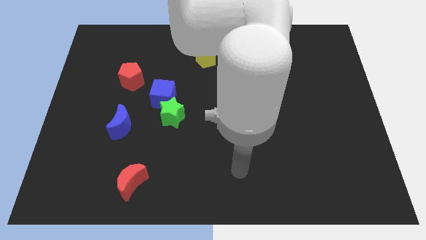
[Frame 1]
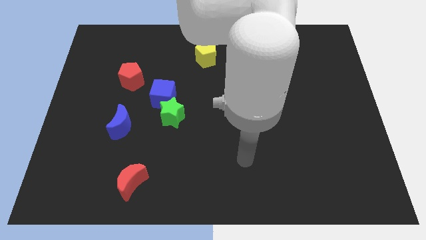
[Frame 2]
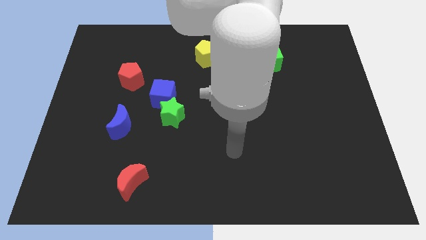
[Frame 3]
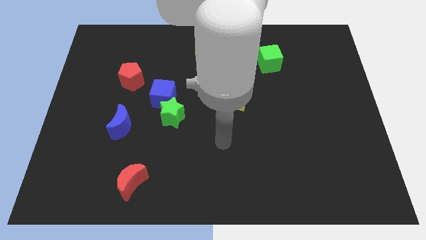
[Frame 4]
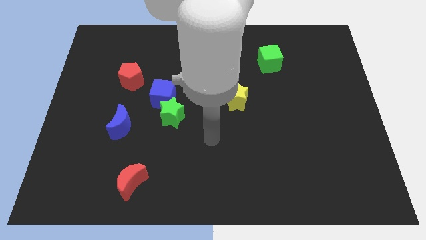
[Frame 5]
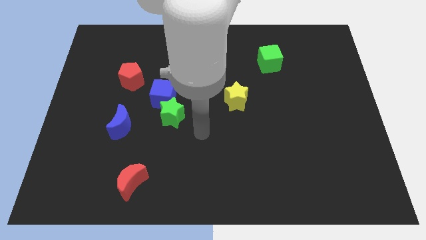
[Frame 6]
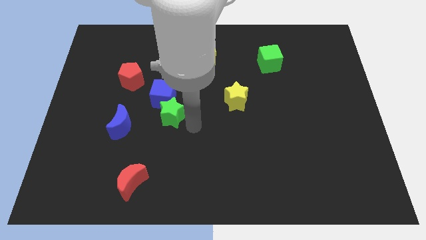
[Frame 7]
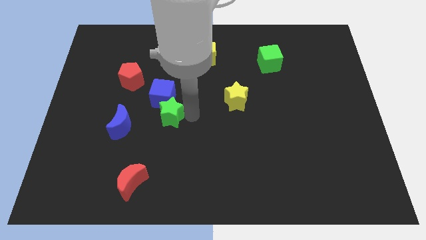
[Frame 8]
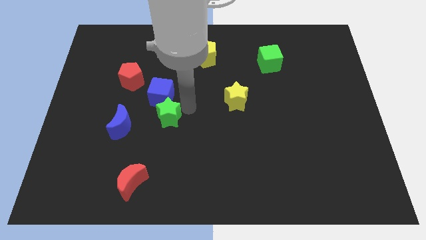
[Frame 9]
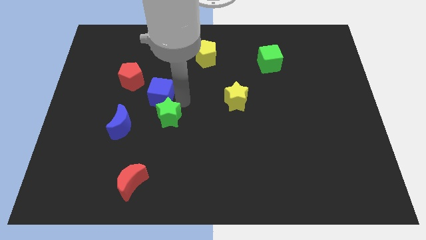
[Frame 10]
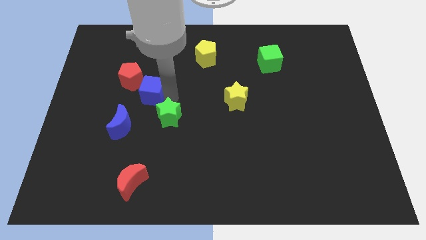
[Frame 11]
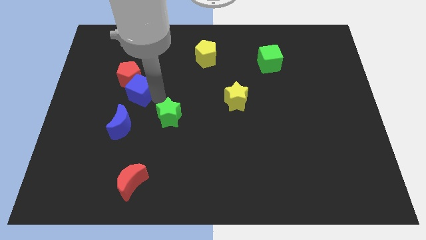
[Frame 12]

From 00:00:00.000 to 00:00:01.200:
pull the green star apart from the blue cube

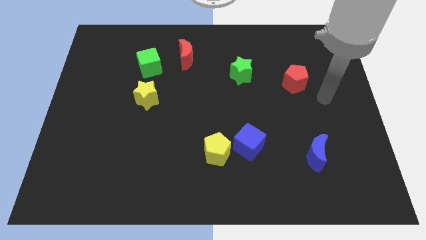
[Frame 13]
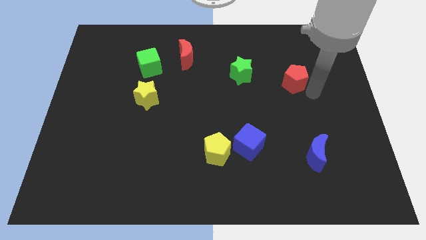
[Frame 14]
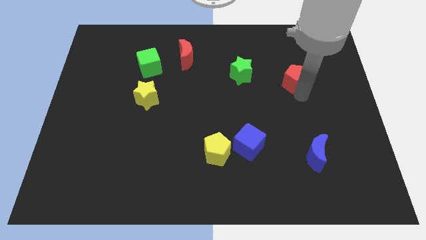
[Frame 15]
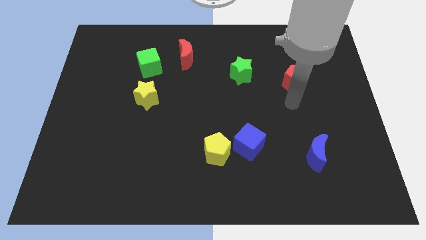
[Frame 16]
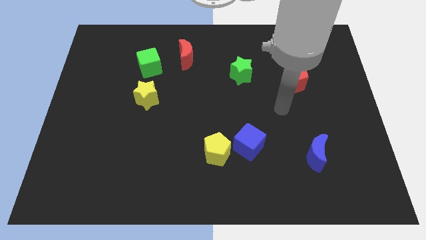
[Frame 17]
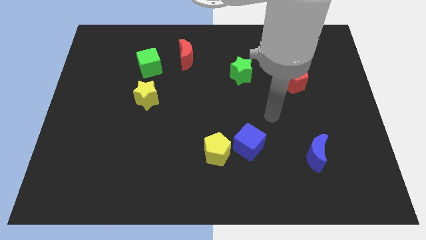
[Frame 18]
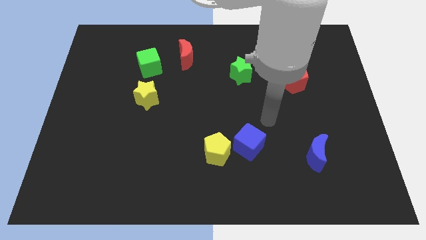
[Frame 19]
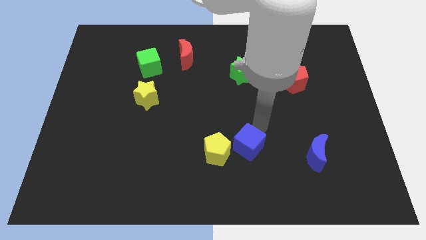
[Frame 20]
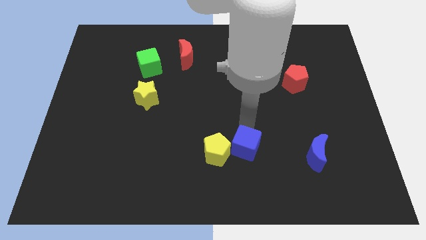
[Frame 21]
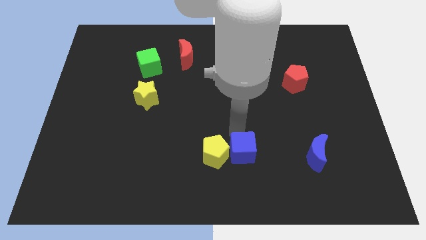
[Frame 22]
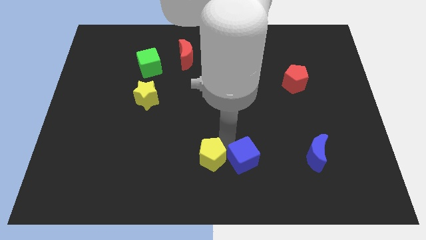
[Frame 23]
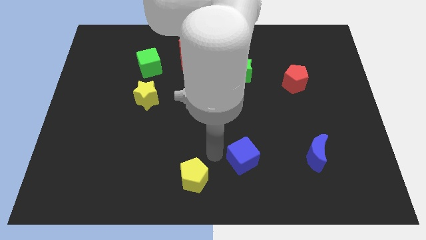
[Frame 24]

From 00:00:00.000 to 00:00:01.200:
pull the blue cube apart from the yellow pentagon

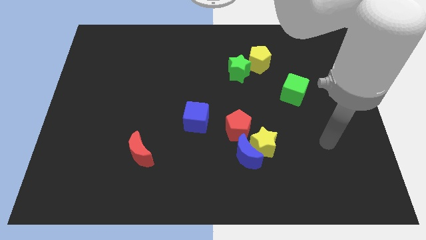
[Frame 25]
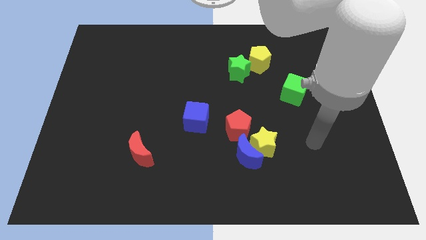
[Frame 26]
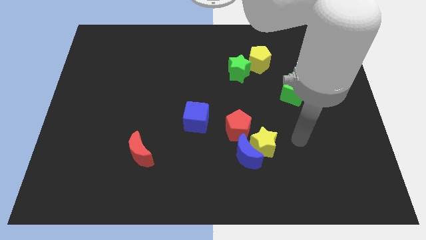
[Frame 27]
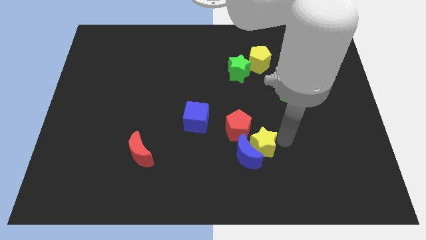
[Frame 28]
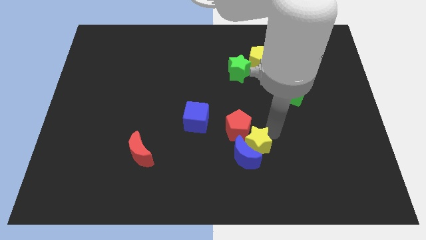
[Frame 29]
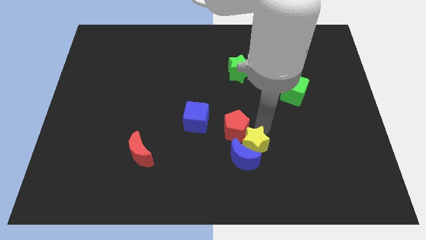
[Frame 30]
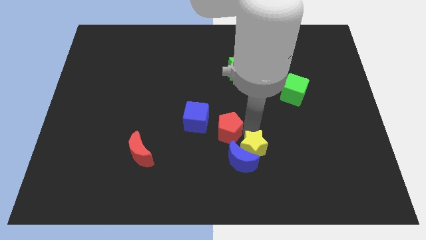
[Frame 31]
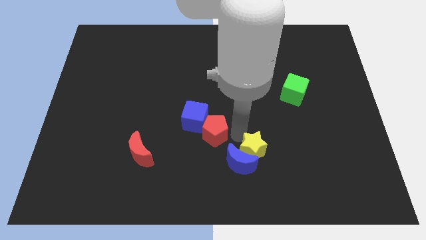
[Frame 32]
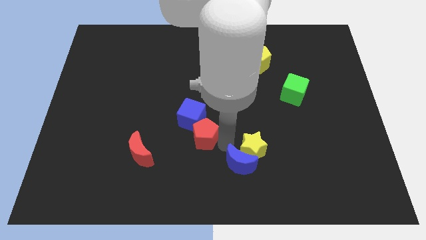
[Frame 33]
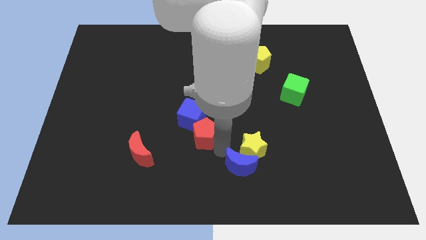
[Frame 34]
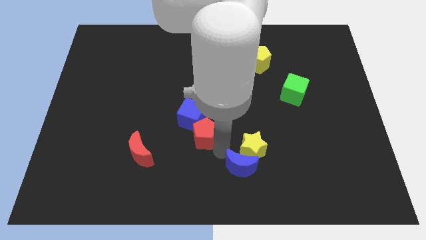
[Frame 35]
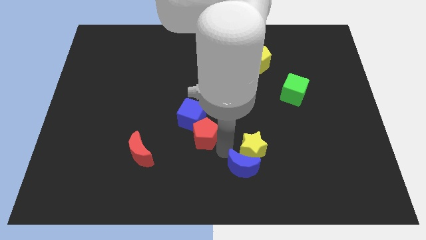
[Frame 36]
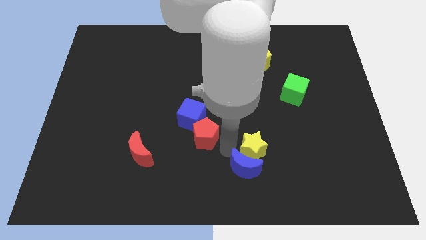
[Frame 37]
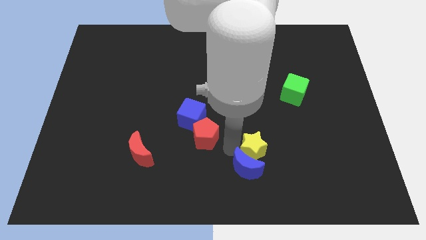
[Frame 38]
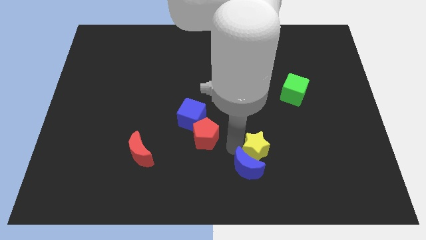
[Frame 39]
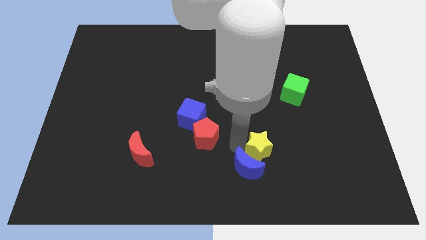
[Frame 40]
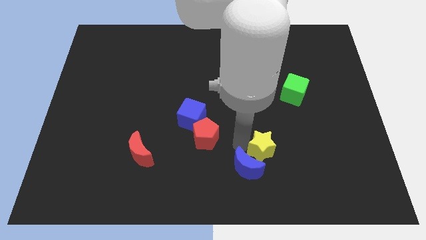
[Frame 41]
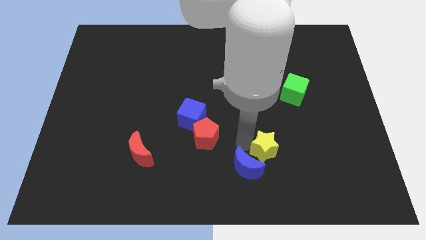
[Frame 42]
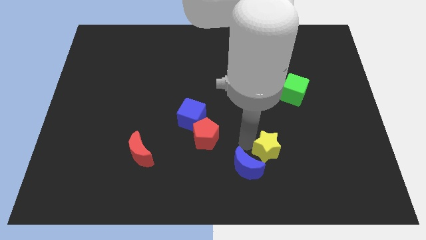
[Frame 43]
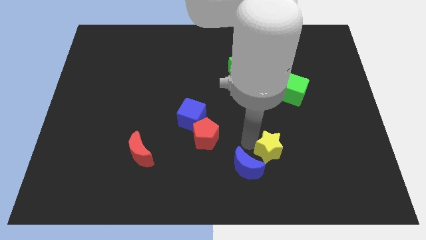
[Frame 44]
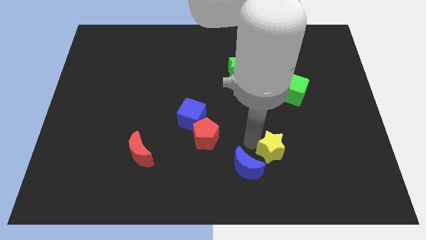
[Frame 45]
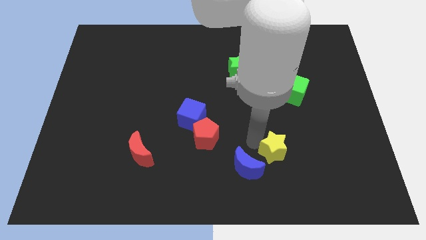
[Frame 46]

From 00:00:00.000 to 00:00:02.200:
pull the yellow star apart from the blue moon and red pentagon

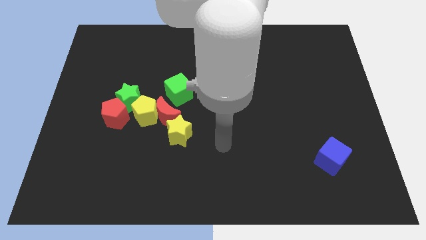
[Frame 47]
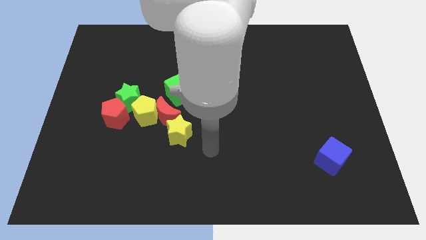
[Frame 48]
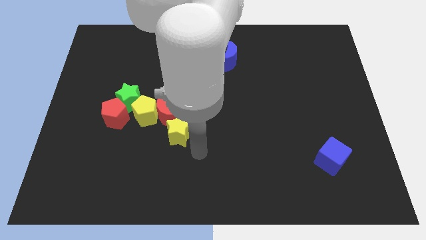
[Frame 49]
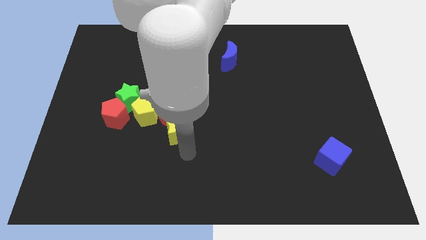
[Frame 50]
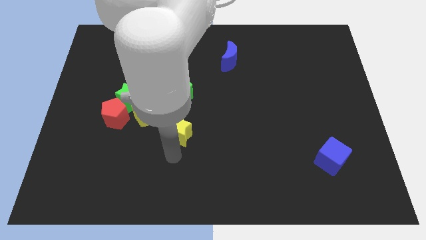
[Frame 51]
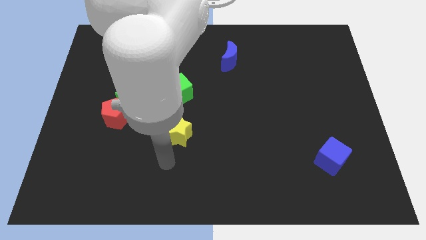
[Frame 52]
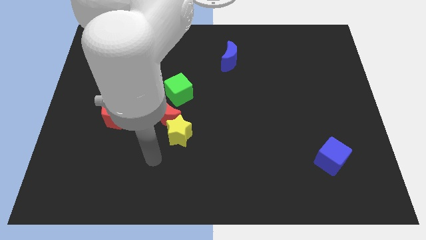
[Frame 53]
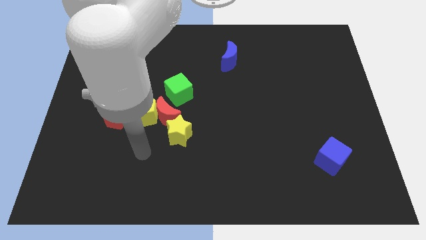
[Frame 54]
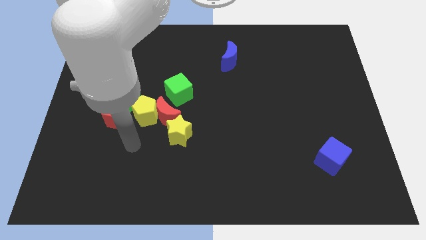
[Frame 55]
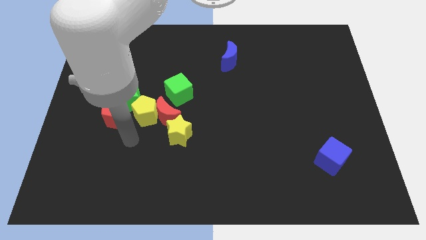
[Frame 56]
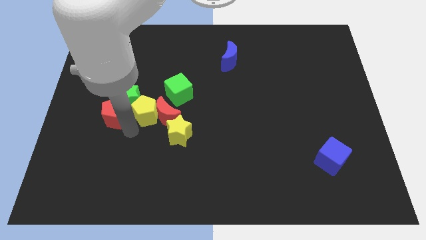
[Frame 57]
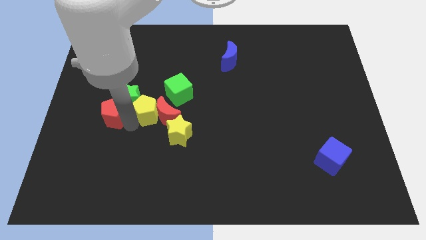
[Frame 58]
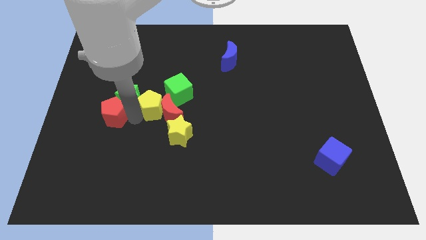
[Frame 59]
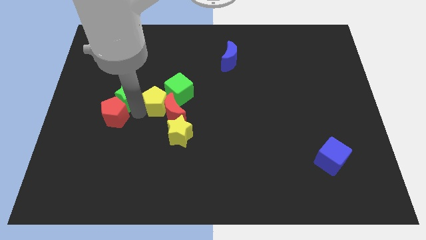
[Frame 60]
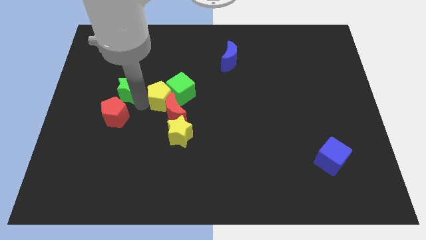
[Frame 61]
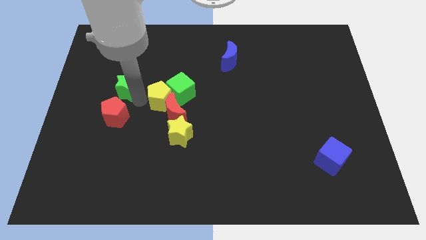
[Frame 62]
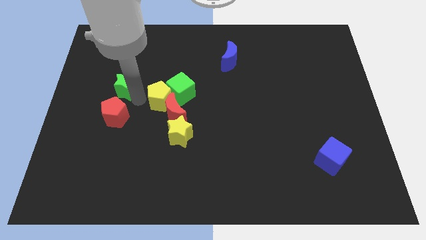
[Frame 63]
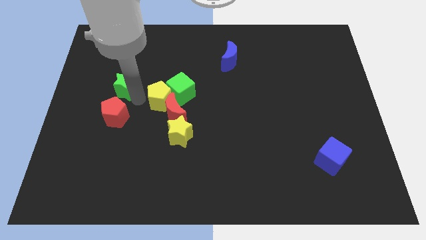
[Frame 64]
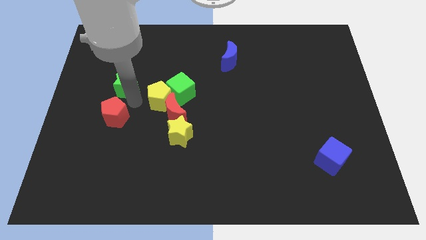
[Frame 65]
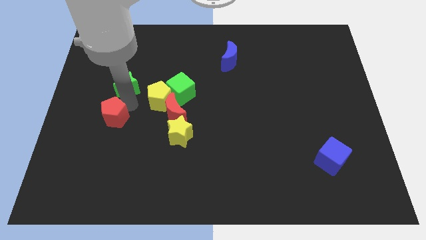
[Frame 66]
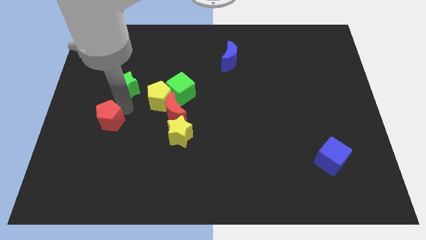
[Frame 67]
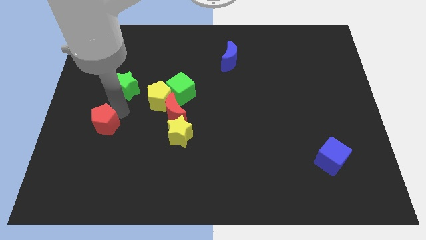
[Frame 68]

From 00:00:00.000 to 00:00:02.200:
move the red pentagon away from the green star and yellow pentagon

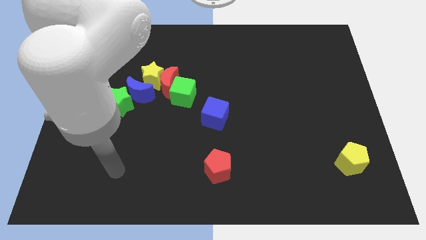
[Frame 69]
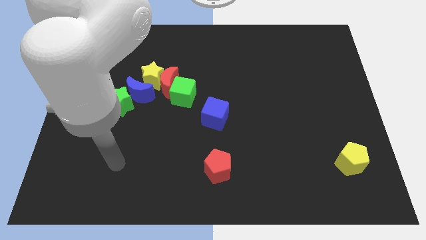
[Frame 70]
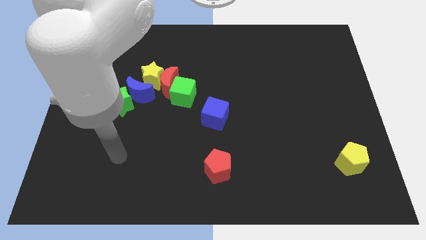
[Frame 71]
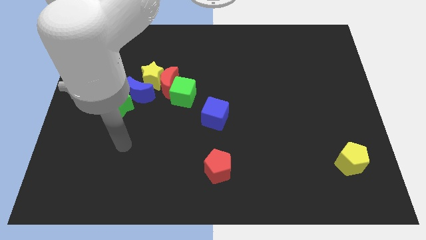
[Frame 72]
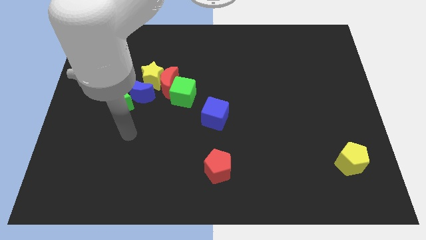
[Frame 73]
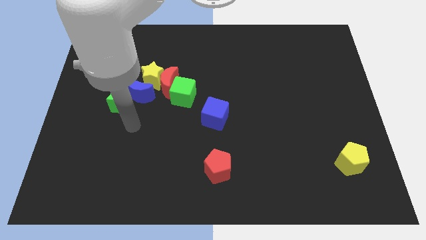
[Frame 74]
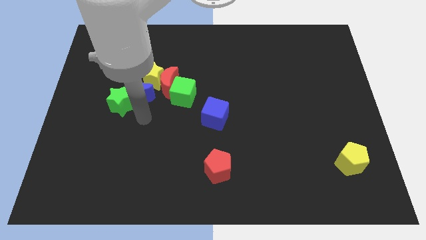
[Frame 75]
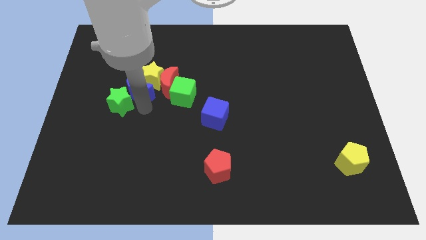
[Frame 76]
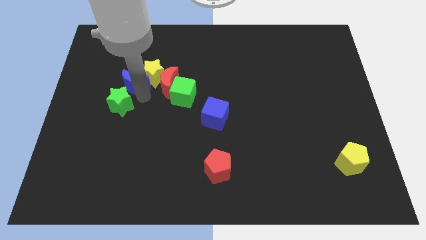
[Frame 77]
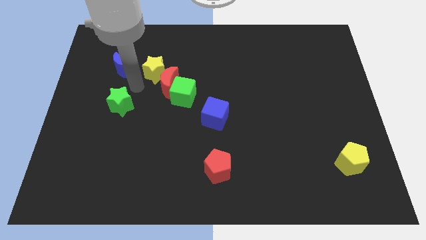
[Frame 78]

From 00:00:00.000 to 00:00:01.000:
pull the green star apart from the blue moon

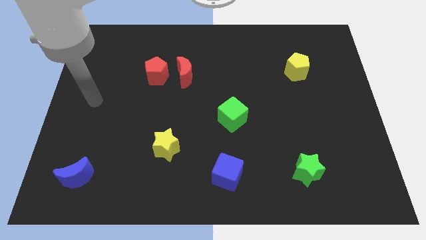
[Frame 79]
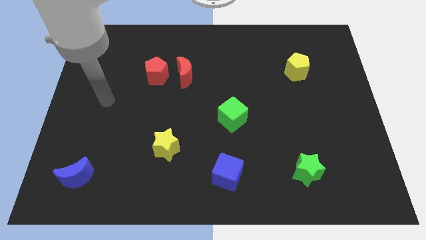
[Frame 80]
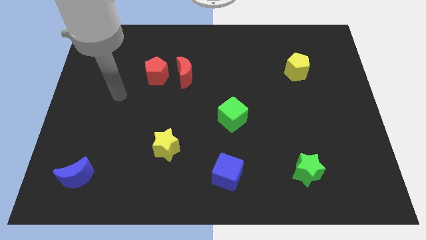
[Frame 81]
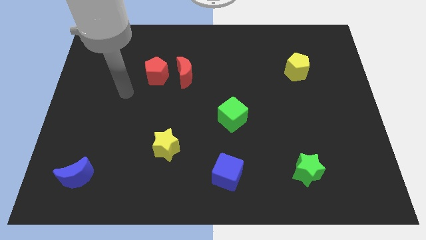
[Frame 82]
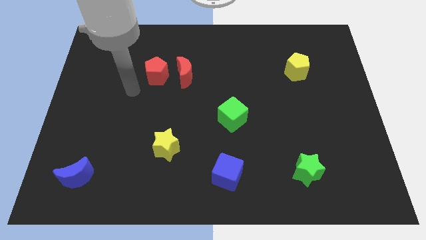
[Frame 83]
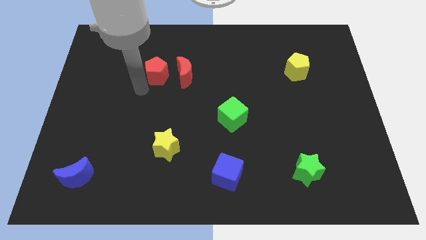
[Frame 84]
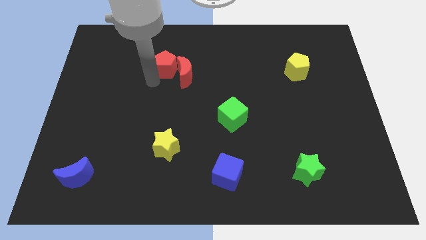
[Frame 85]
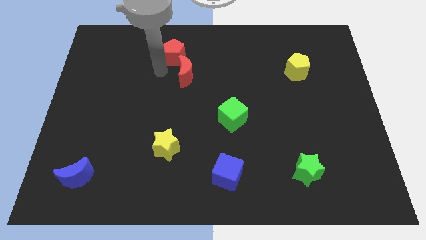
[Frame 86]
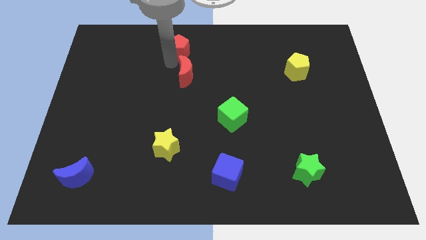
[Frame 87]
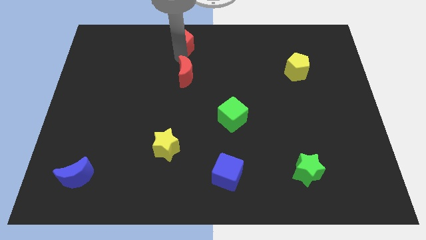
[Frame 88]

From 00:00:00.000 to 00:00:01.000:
move the red moon away from the red pentagon

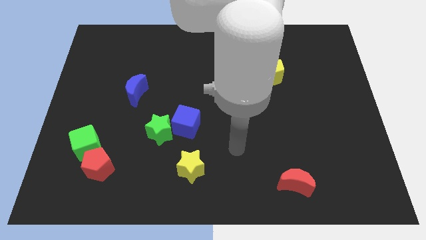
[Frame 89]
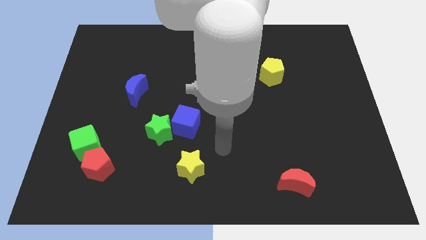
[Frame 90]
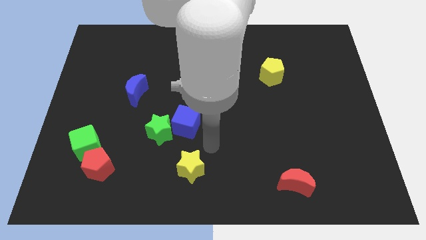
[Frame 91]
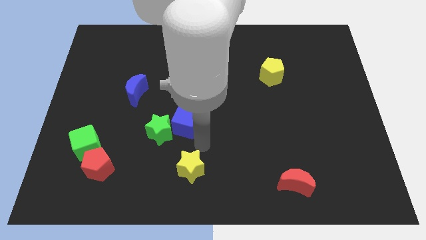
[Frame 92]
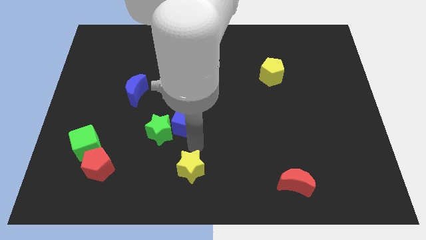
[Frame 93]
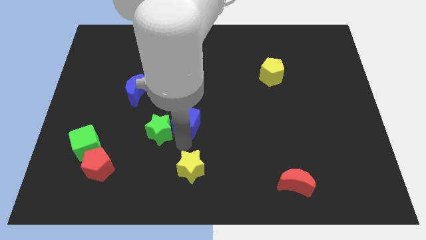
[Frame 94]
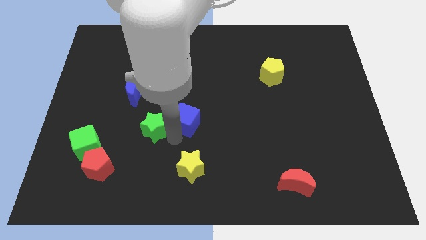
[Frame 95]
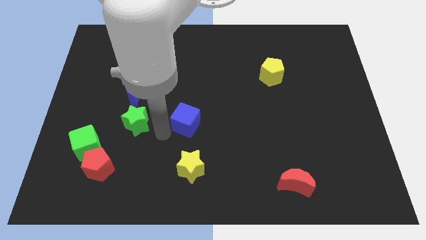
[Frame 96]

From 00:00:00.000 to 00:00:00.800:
move the blue cube away from the green star
